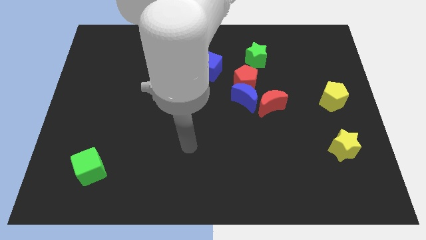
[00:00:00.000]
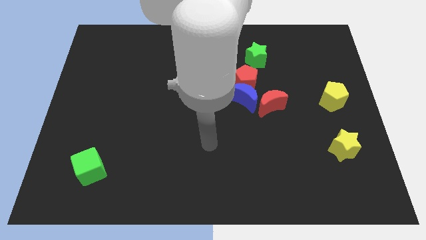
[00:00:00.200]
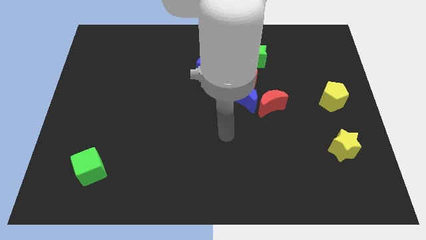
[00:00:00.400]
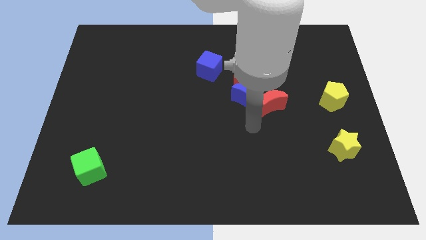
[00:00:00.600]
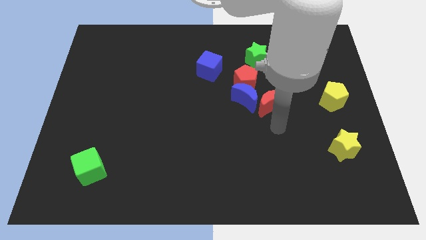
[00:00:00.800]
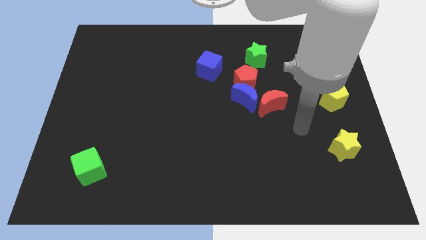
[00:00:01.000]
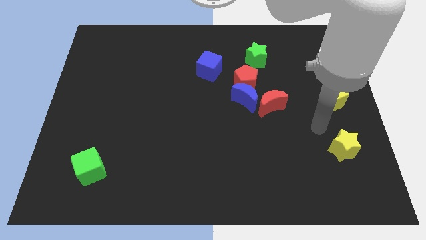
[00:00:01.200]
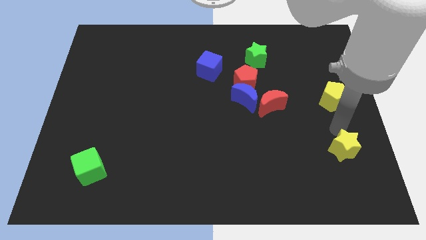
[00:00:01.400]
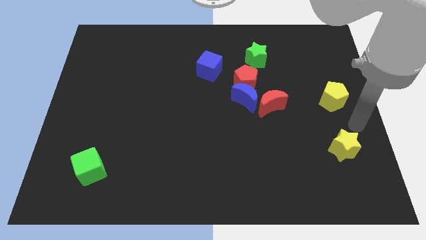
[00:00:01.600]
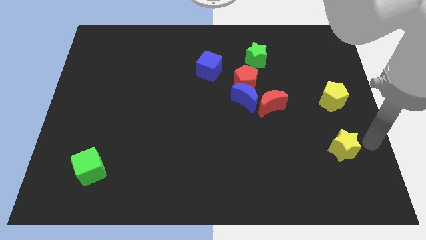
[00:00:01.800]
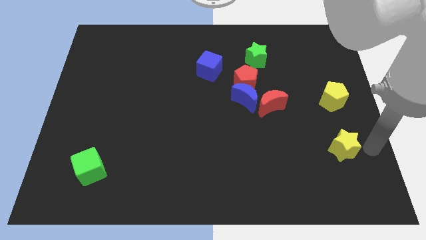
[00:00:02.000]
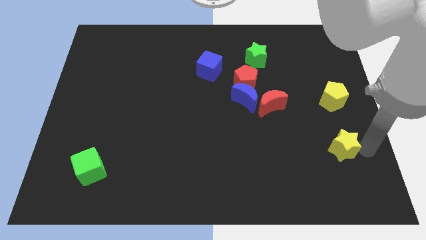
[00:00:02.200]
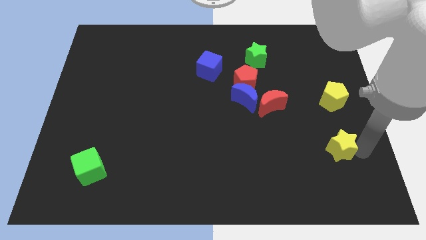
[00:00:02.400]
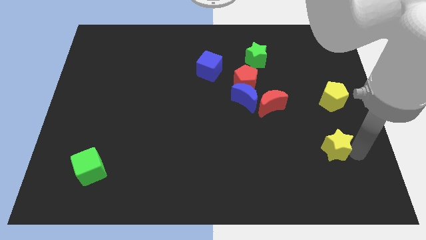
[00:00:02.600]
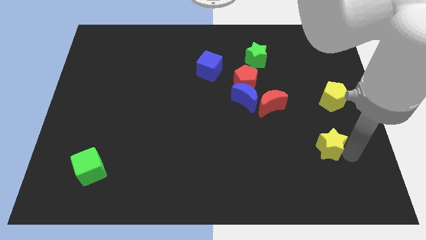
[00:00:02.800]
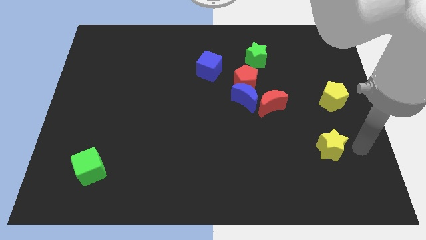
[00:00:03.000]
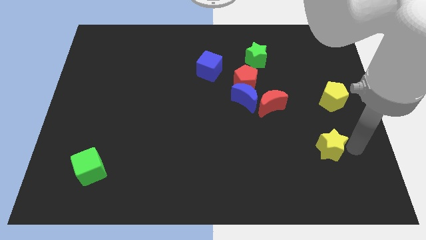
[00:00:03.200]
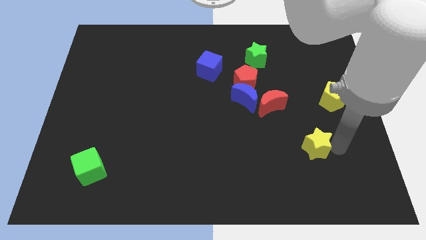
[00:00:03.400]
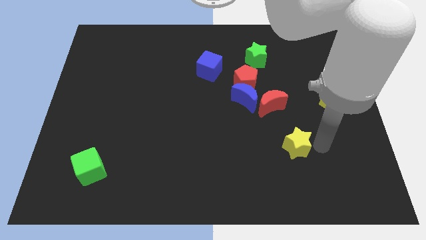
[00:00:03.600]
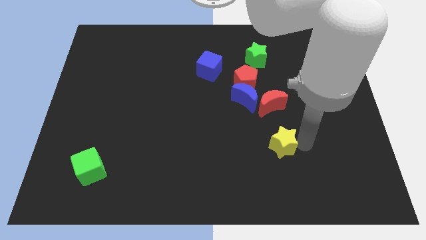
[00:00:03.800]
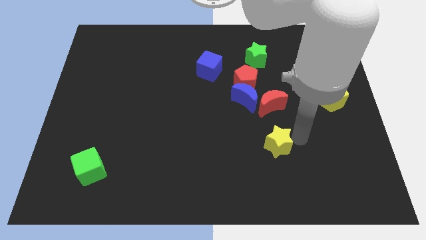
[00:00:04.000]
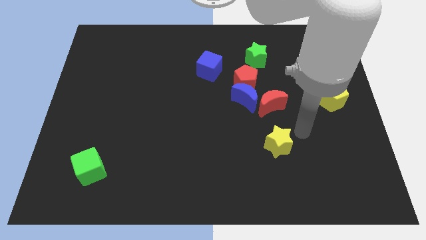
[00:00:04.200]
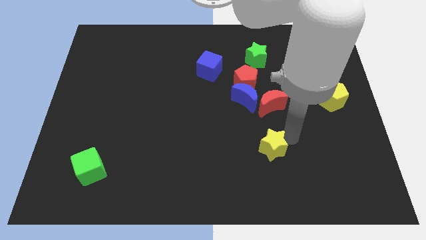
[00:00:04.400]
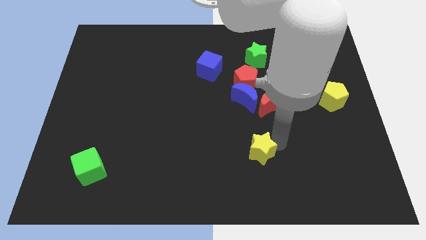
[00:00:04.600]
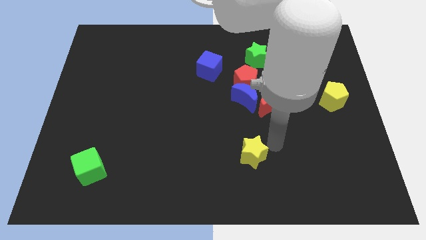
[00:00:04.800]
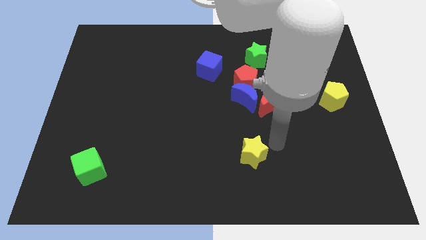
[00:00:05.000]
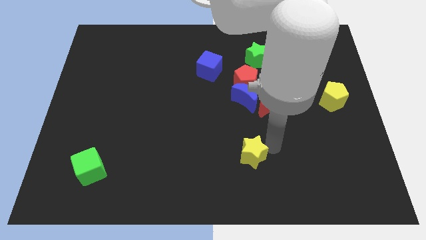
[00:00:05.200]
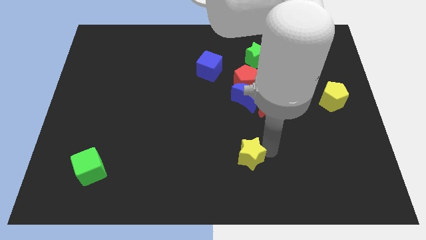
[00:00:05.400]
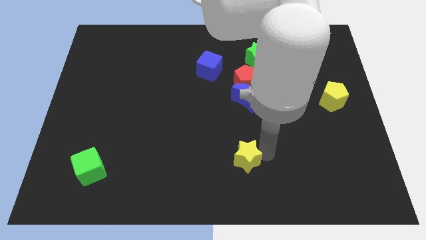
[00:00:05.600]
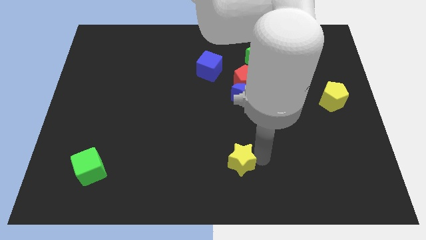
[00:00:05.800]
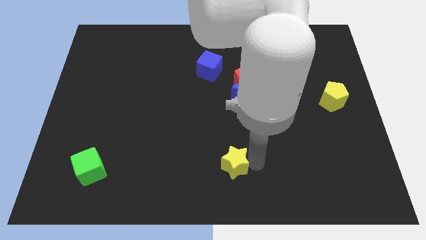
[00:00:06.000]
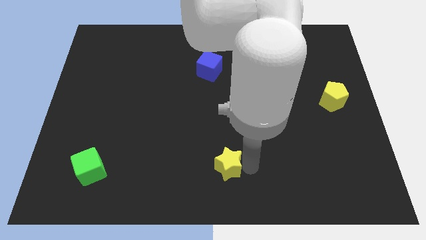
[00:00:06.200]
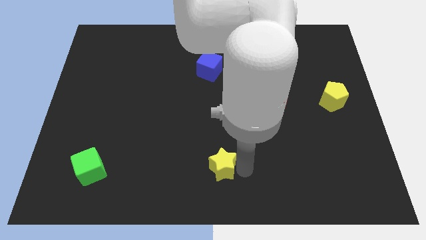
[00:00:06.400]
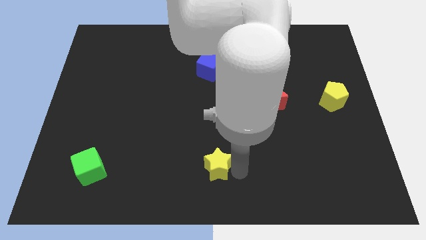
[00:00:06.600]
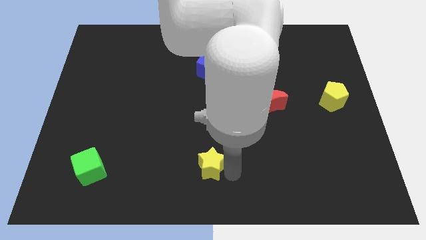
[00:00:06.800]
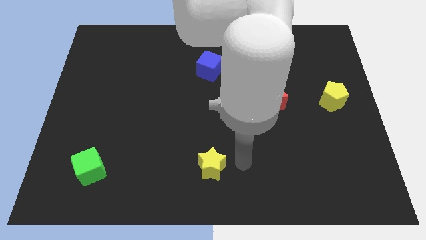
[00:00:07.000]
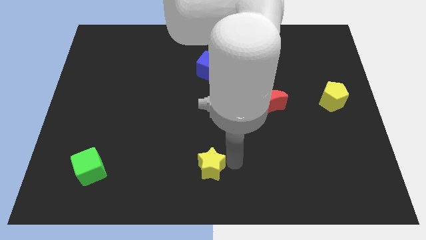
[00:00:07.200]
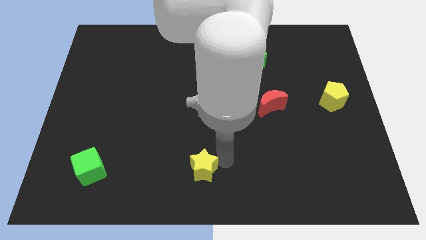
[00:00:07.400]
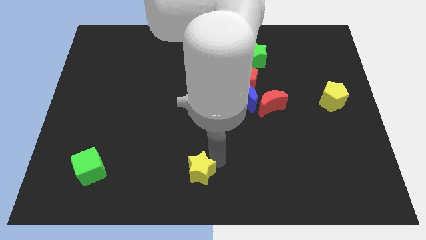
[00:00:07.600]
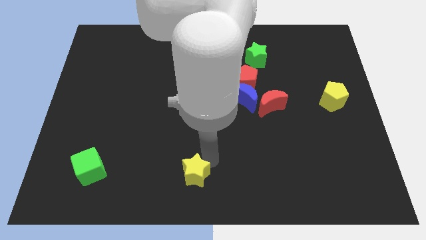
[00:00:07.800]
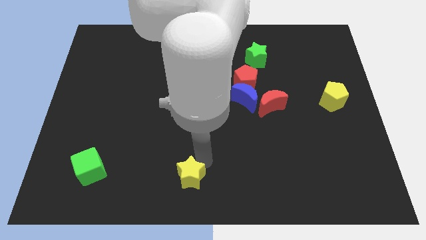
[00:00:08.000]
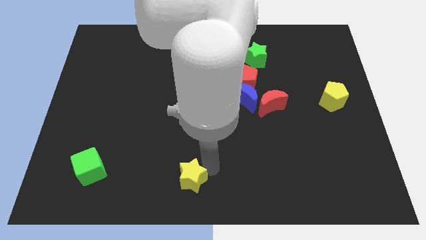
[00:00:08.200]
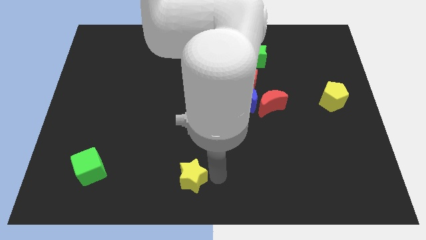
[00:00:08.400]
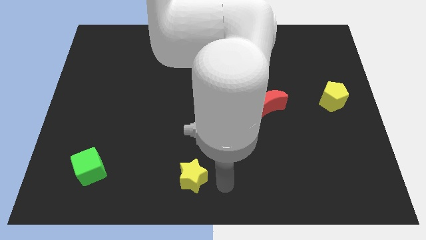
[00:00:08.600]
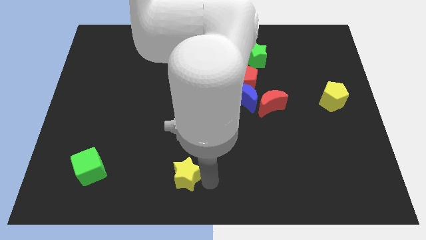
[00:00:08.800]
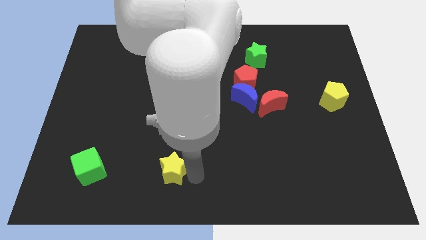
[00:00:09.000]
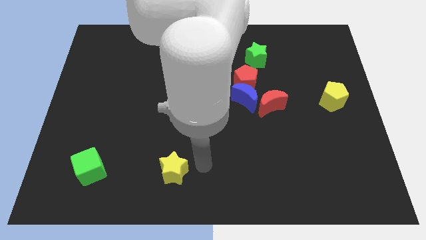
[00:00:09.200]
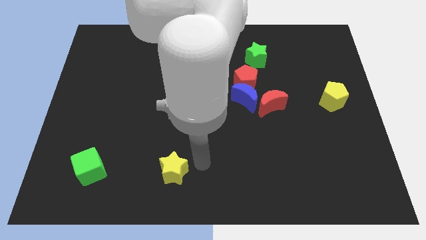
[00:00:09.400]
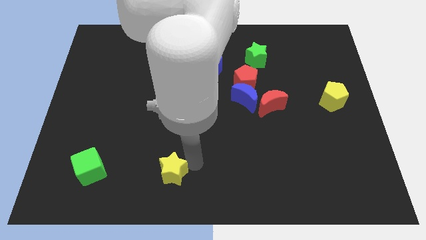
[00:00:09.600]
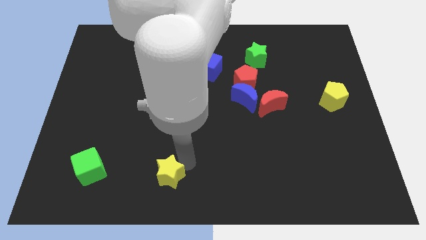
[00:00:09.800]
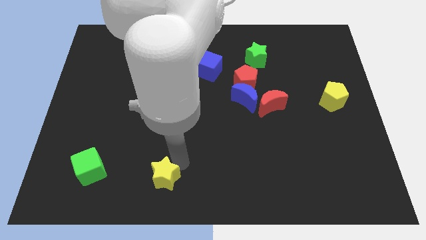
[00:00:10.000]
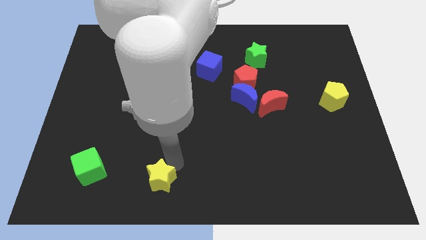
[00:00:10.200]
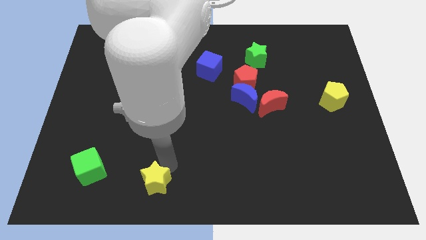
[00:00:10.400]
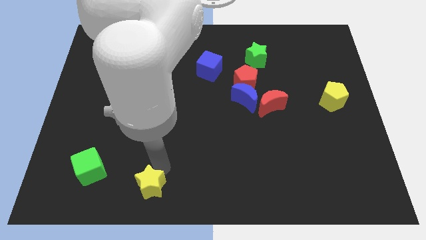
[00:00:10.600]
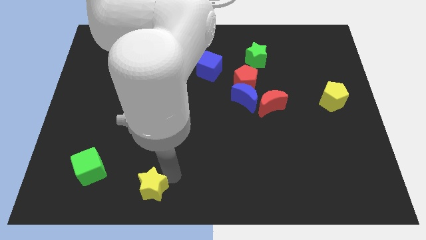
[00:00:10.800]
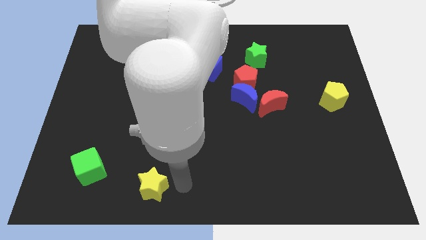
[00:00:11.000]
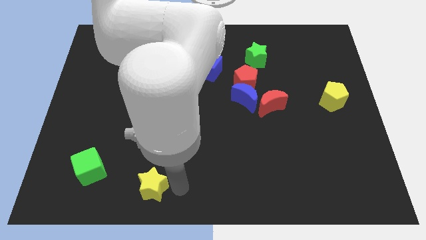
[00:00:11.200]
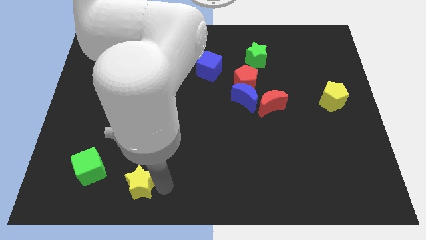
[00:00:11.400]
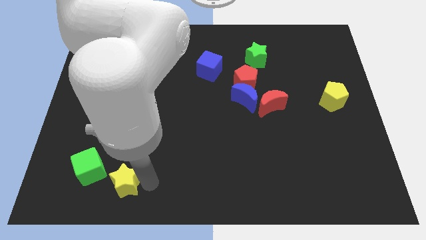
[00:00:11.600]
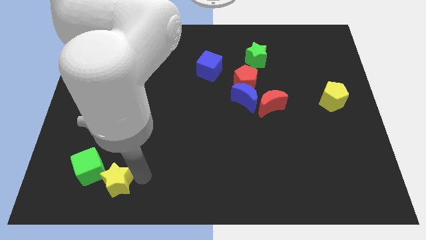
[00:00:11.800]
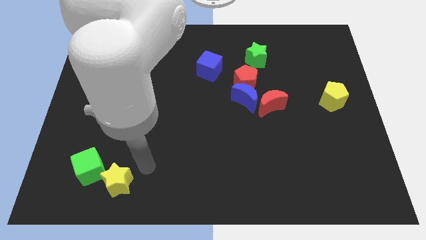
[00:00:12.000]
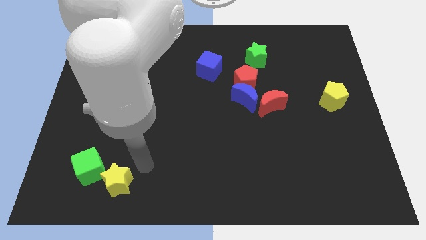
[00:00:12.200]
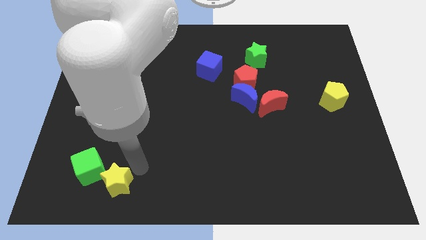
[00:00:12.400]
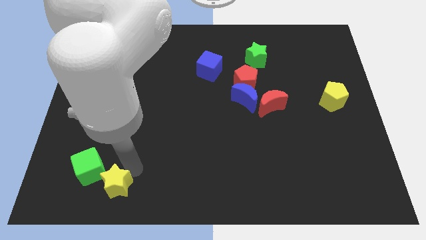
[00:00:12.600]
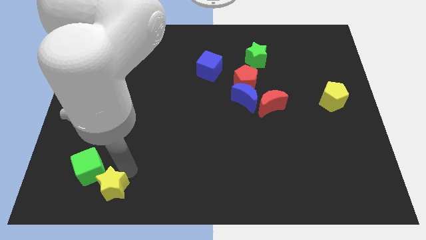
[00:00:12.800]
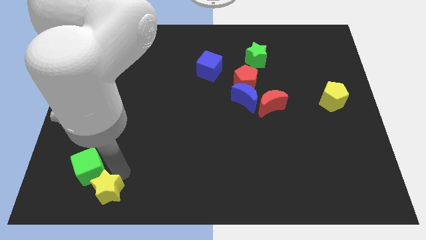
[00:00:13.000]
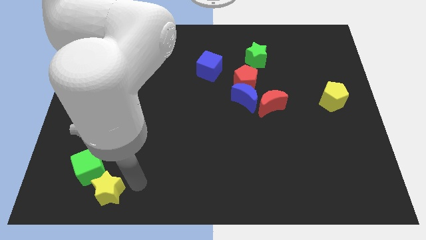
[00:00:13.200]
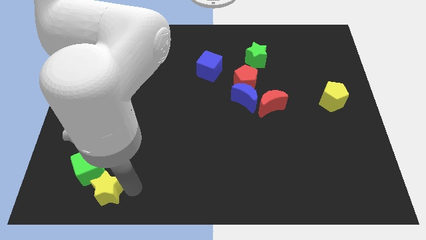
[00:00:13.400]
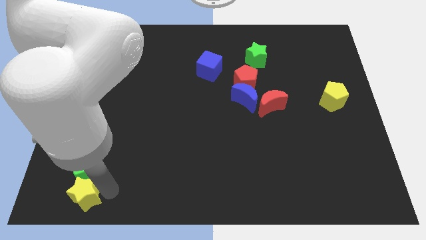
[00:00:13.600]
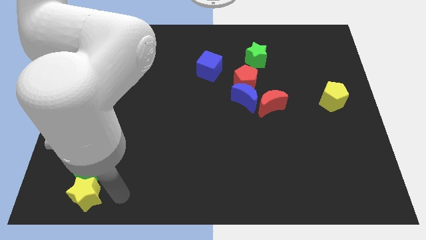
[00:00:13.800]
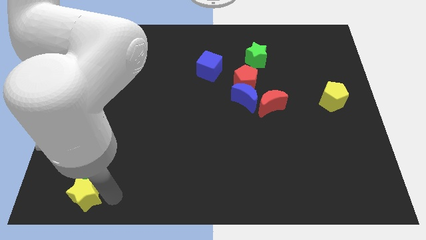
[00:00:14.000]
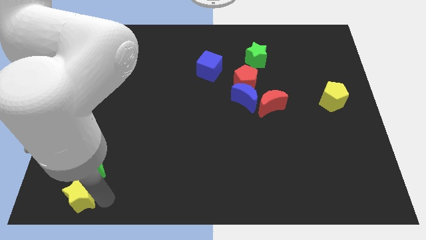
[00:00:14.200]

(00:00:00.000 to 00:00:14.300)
move the yellow star to the bottom left
